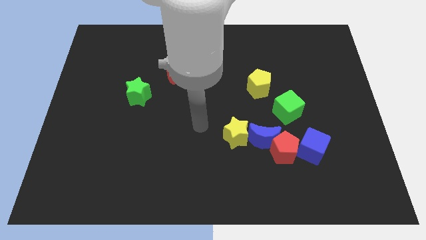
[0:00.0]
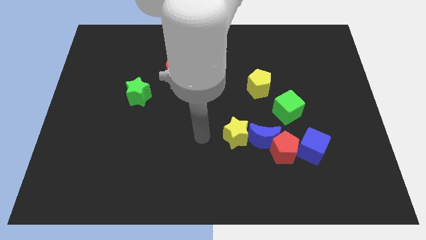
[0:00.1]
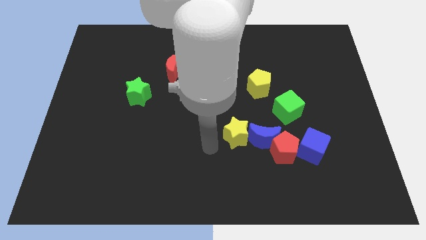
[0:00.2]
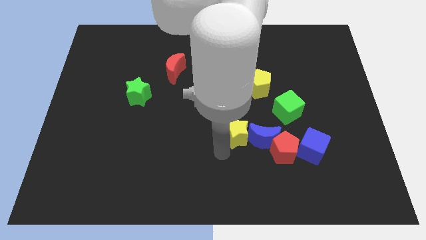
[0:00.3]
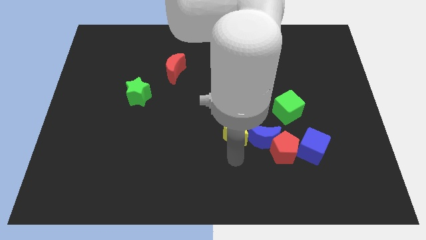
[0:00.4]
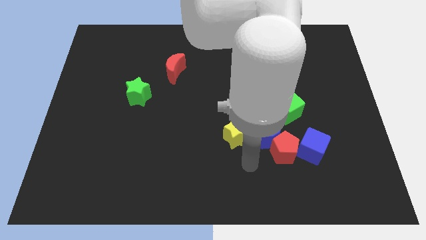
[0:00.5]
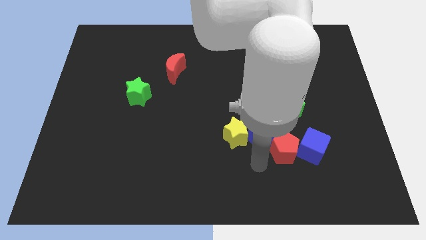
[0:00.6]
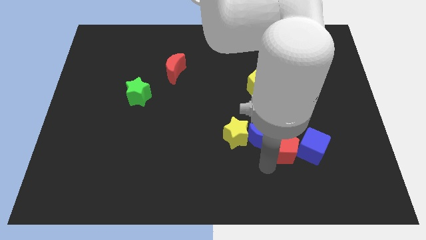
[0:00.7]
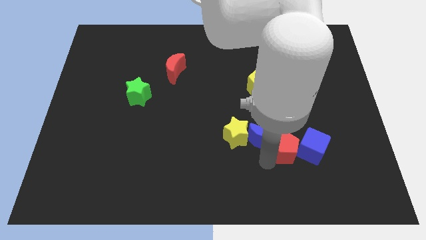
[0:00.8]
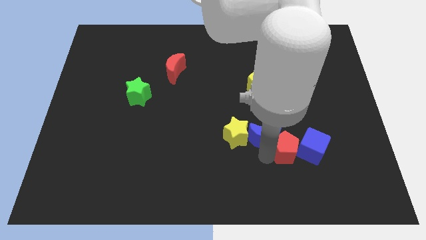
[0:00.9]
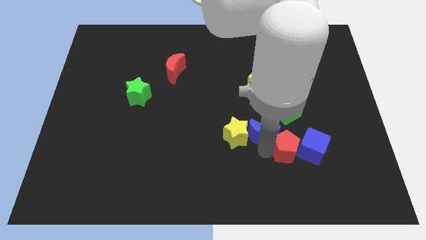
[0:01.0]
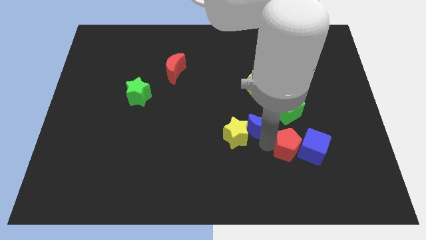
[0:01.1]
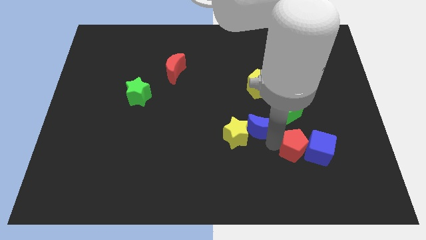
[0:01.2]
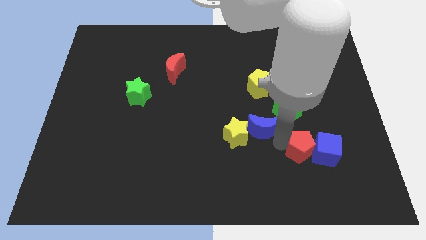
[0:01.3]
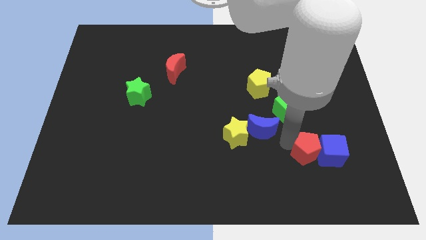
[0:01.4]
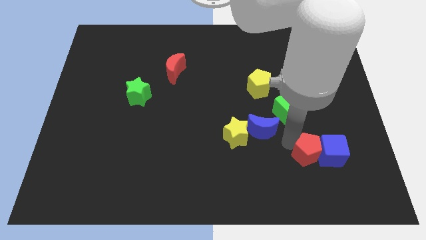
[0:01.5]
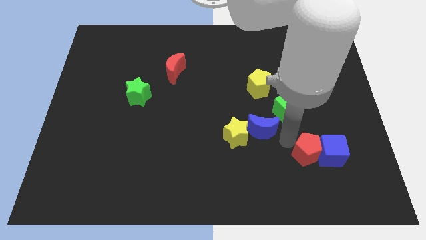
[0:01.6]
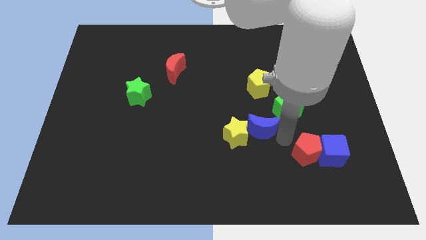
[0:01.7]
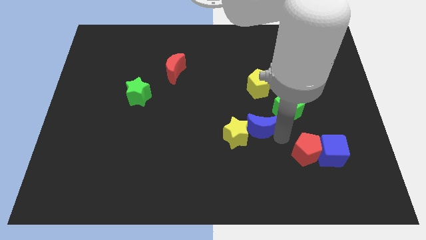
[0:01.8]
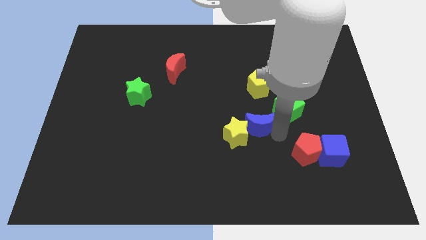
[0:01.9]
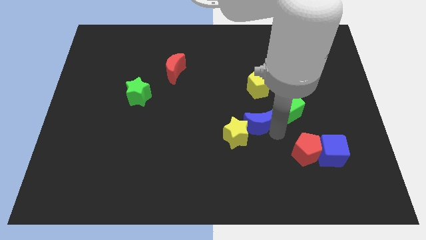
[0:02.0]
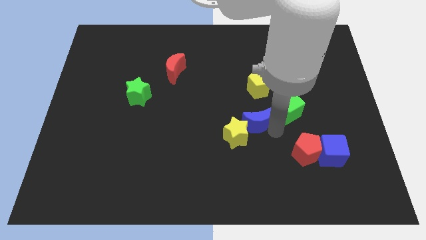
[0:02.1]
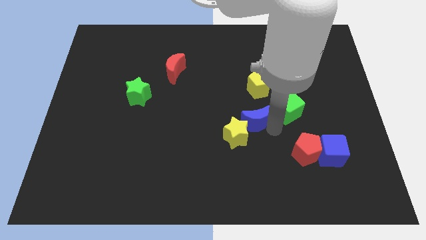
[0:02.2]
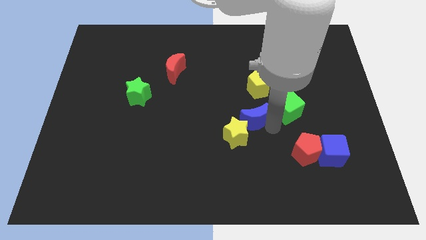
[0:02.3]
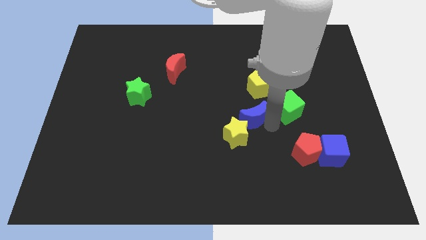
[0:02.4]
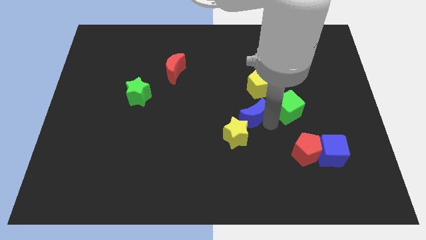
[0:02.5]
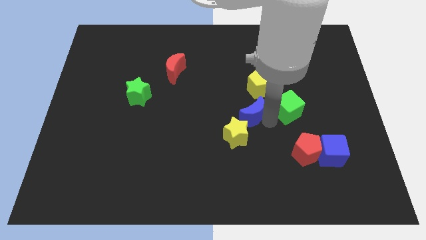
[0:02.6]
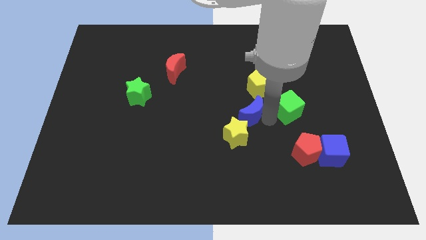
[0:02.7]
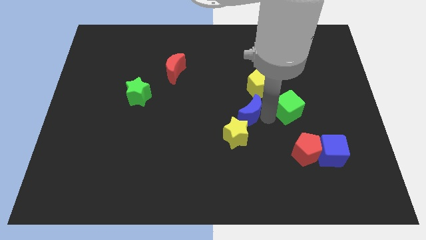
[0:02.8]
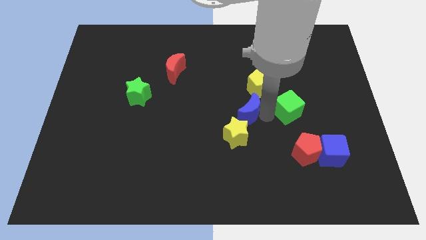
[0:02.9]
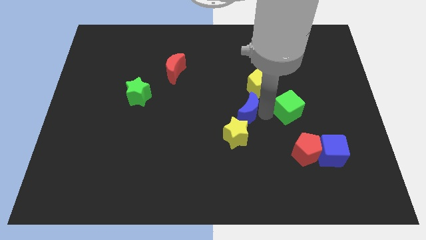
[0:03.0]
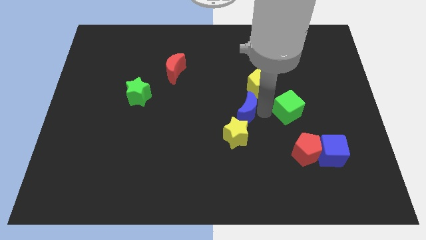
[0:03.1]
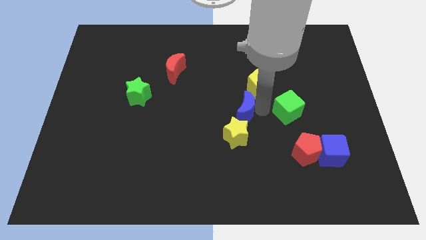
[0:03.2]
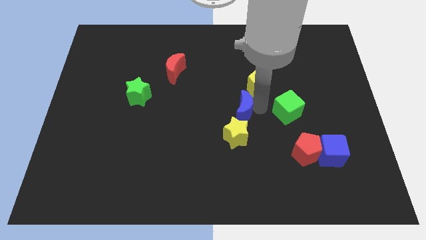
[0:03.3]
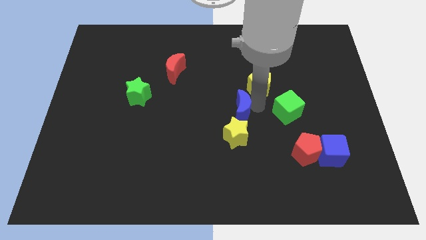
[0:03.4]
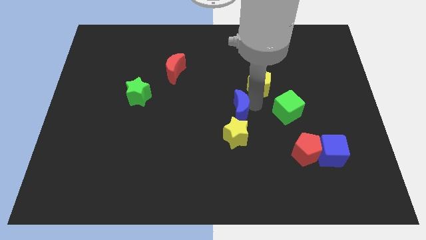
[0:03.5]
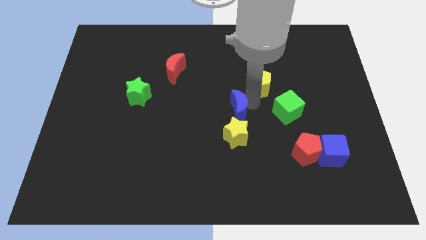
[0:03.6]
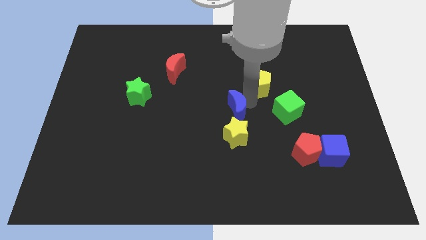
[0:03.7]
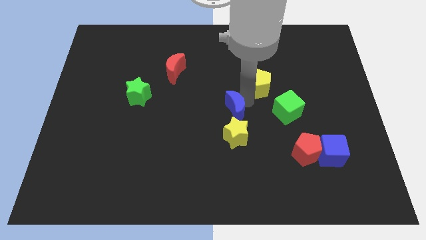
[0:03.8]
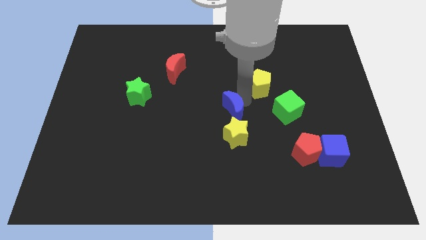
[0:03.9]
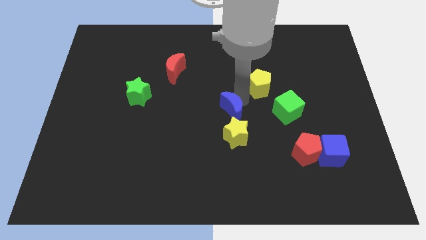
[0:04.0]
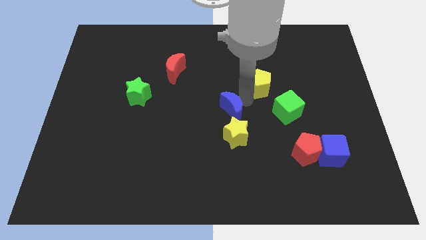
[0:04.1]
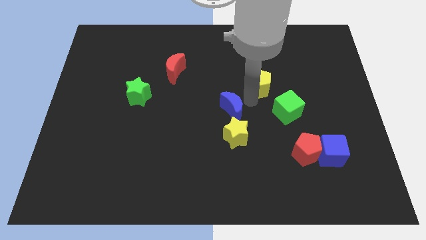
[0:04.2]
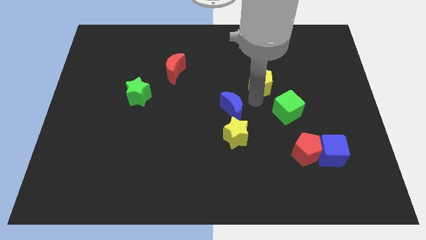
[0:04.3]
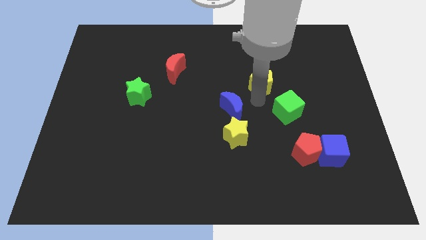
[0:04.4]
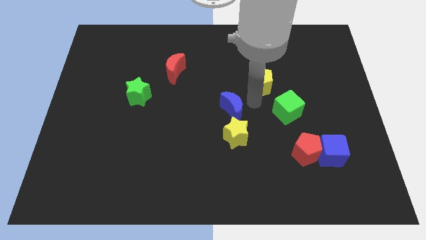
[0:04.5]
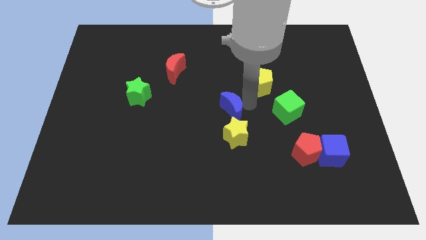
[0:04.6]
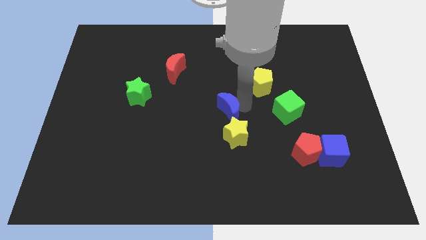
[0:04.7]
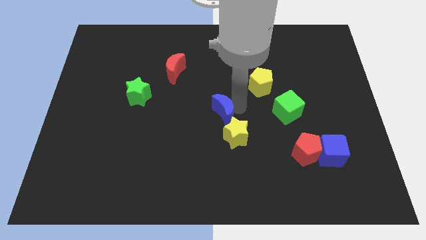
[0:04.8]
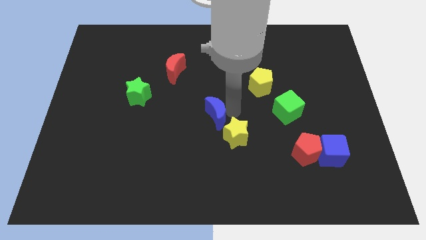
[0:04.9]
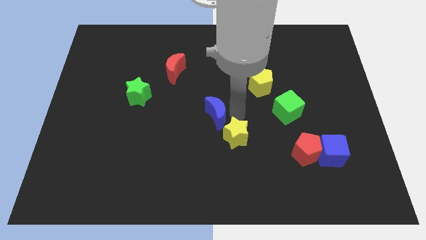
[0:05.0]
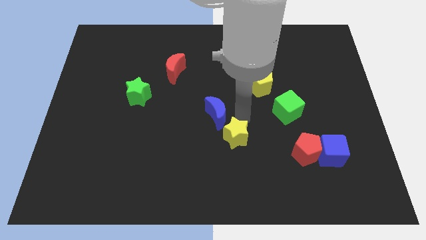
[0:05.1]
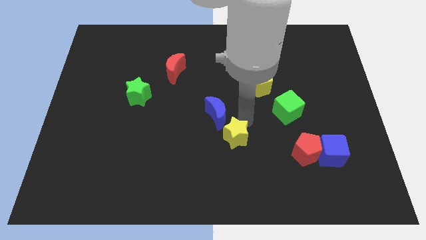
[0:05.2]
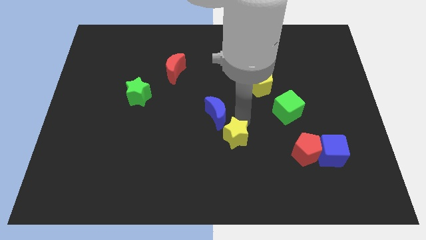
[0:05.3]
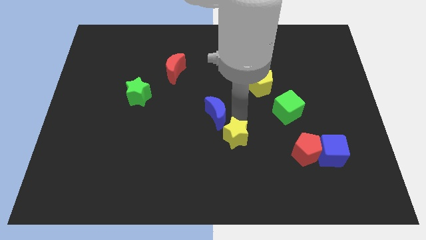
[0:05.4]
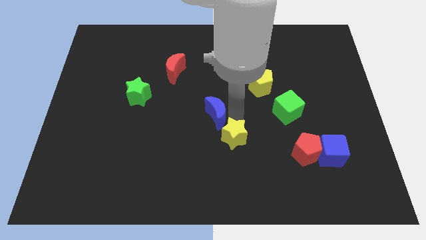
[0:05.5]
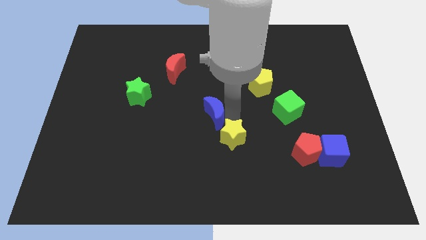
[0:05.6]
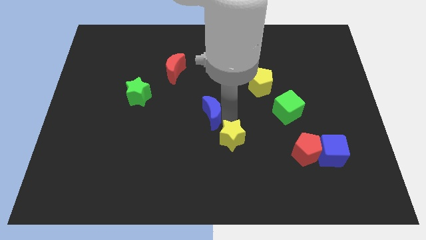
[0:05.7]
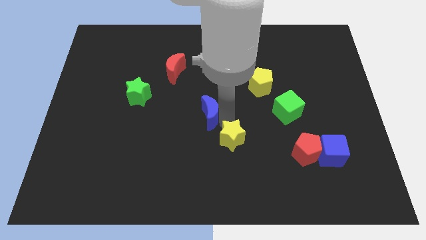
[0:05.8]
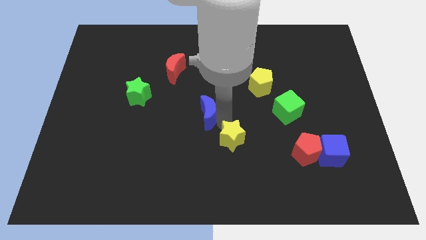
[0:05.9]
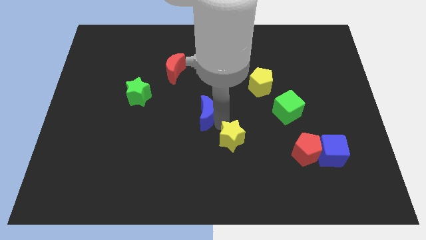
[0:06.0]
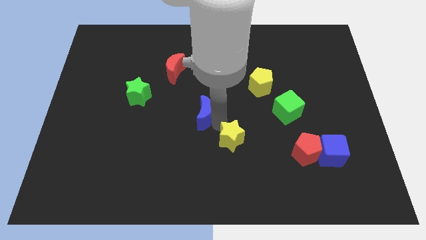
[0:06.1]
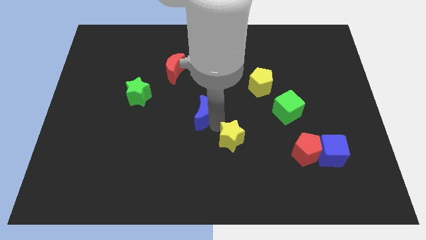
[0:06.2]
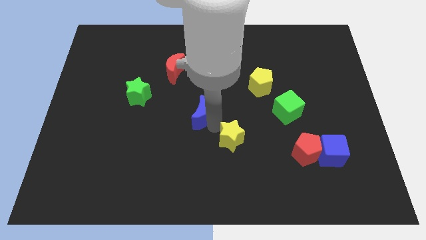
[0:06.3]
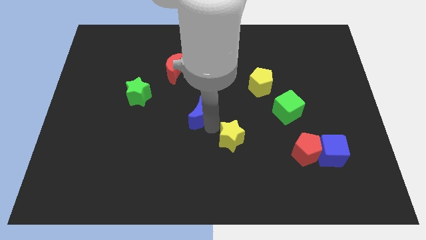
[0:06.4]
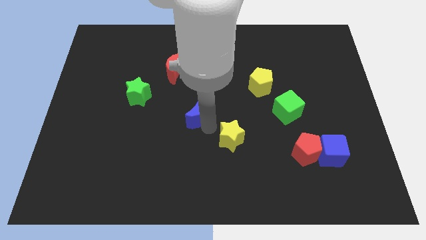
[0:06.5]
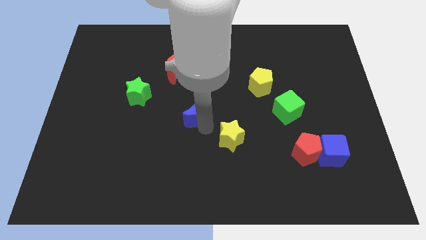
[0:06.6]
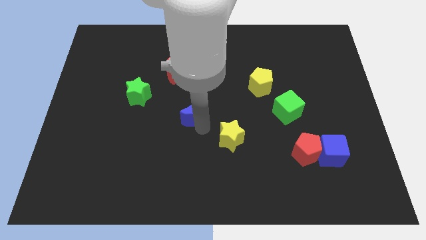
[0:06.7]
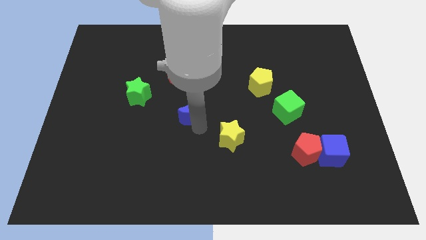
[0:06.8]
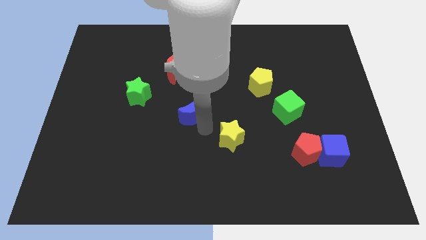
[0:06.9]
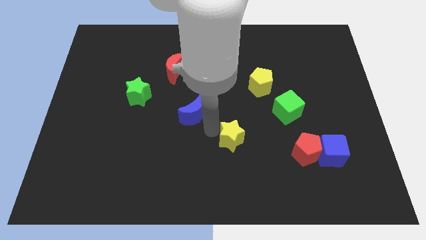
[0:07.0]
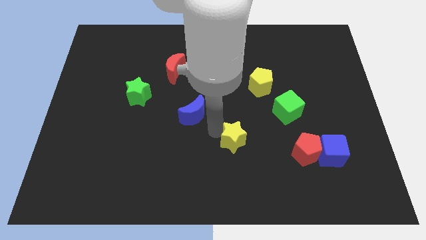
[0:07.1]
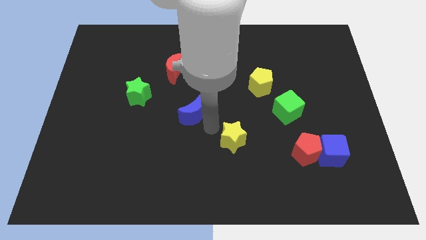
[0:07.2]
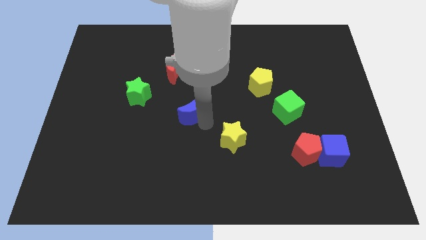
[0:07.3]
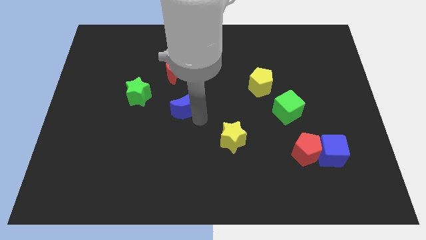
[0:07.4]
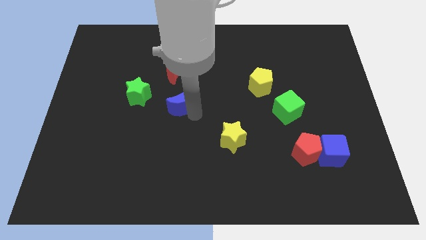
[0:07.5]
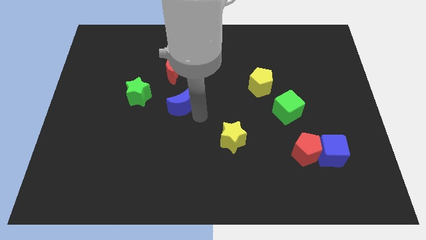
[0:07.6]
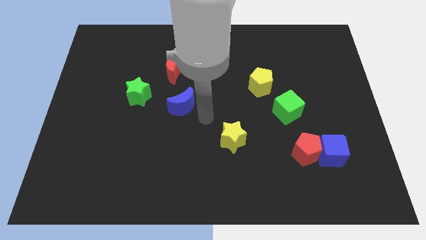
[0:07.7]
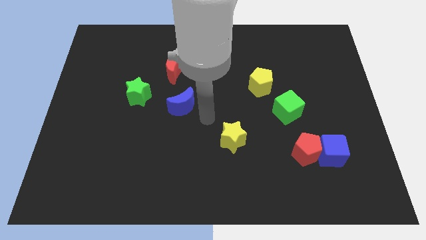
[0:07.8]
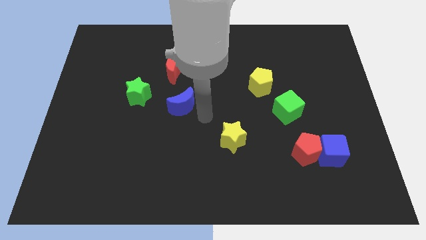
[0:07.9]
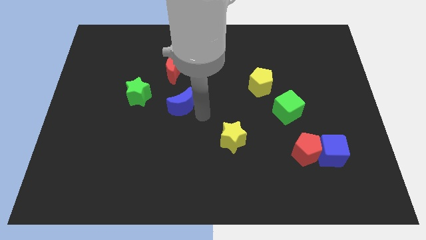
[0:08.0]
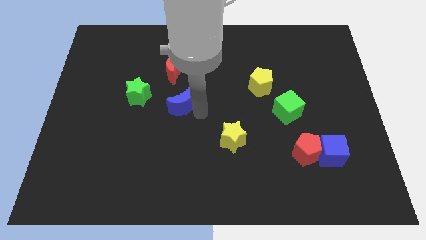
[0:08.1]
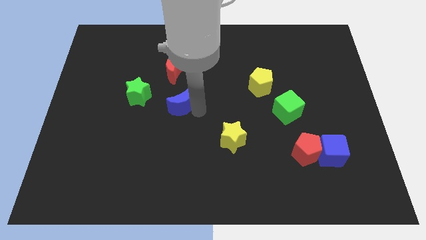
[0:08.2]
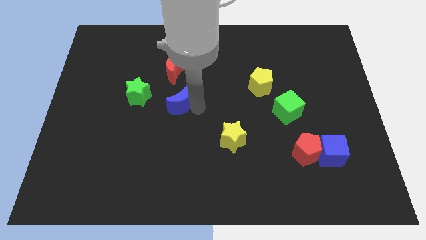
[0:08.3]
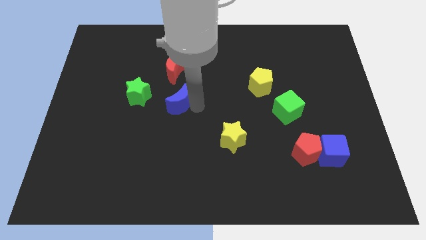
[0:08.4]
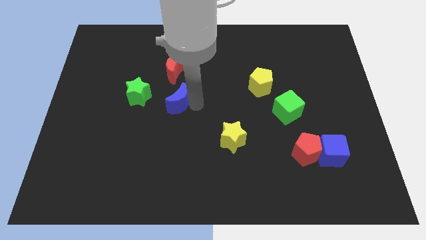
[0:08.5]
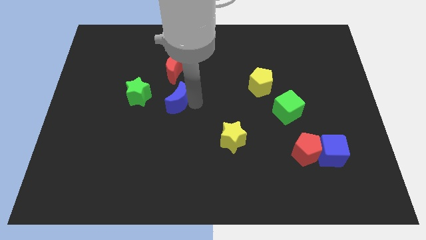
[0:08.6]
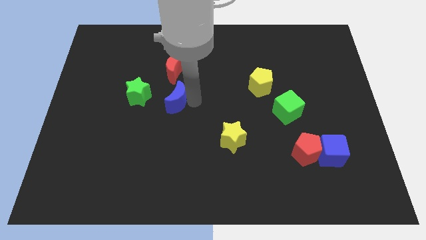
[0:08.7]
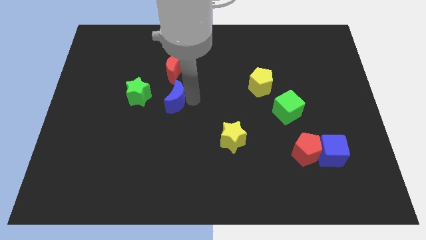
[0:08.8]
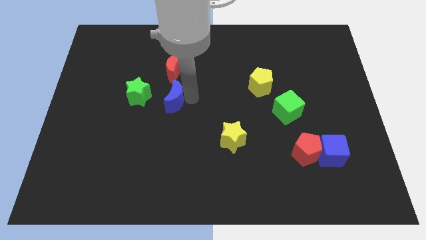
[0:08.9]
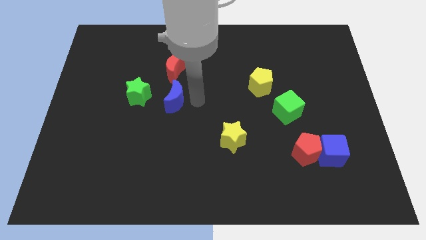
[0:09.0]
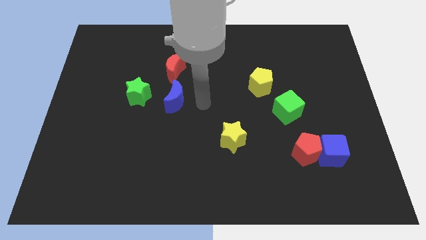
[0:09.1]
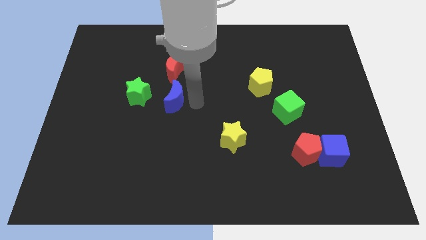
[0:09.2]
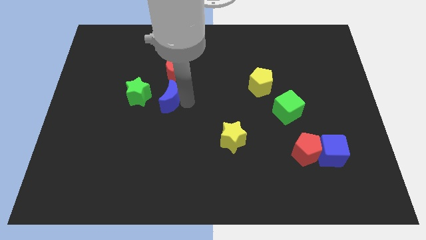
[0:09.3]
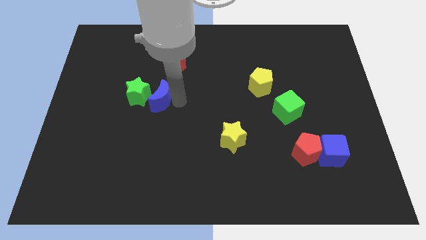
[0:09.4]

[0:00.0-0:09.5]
push the blue moon towards the green star
